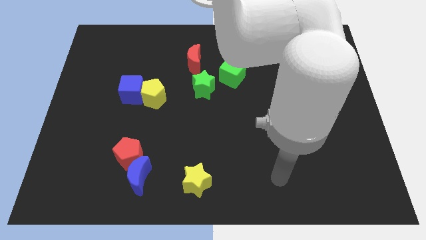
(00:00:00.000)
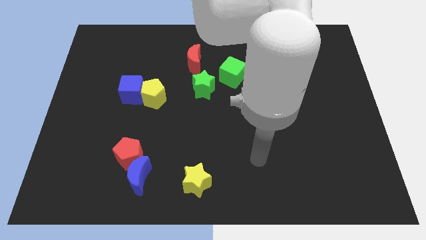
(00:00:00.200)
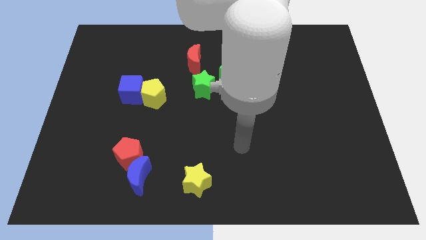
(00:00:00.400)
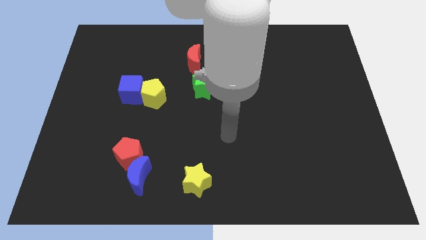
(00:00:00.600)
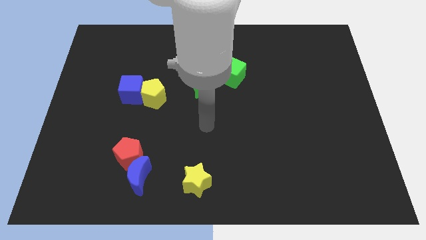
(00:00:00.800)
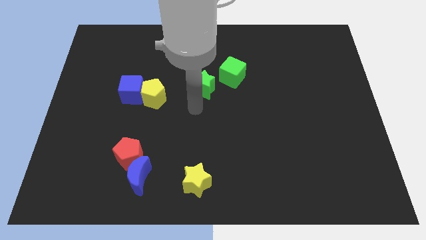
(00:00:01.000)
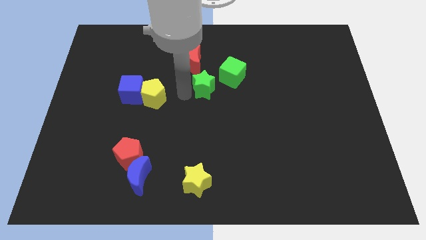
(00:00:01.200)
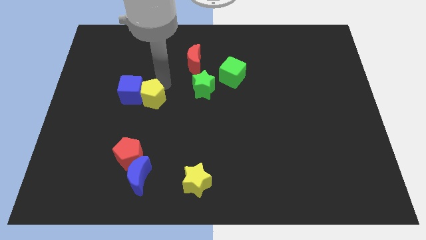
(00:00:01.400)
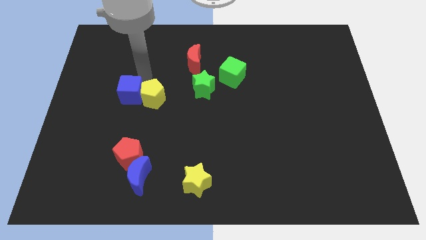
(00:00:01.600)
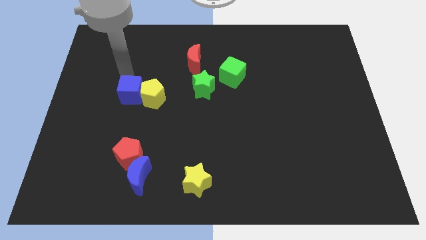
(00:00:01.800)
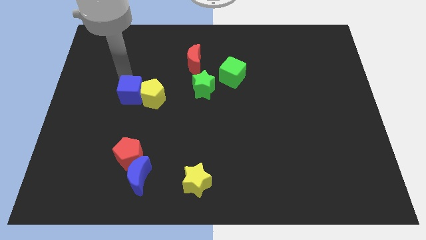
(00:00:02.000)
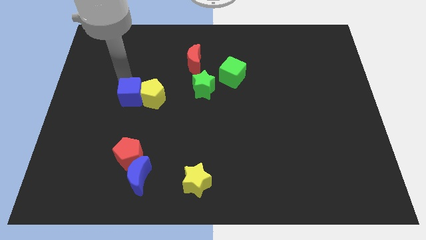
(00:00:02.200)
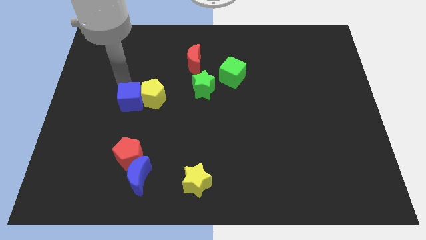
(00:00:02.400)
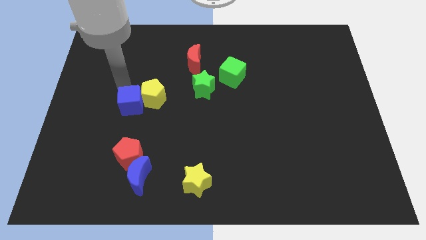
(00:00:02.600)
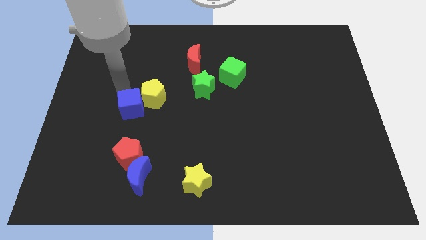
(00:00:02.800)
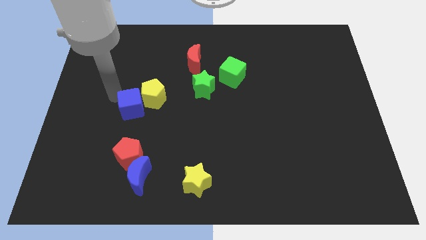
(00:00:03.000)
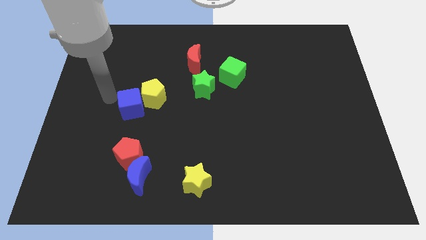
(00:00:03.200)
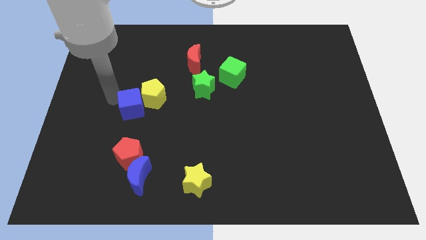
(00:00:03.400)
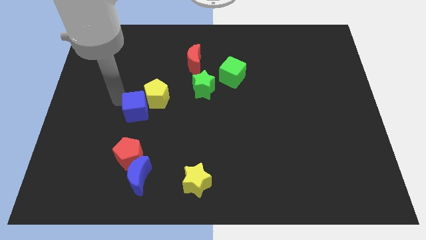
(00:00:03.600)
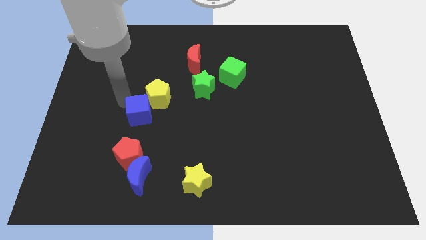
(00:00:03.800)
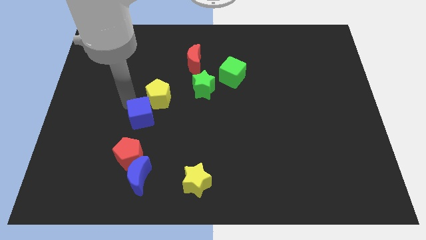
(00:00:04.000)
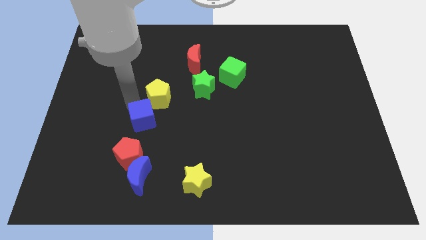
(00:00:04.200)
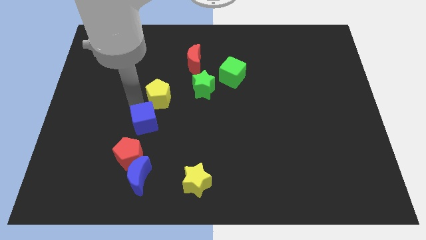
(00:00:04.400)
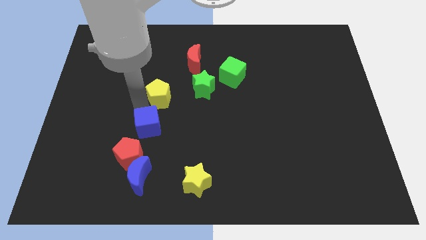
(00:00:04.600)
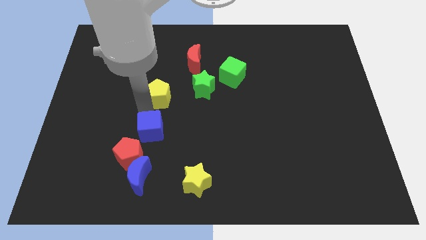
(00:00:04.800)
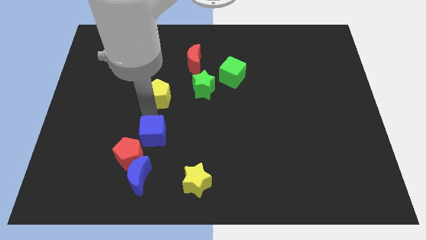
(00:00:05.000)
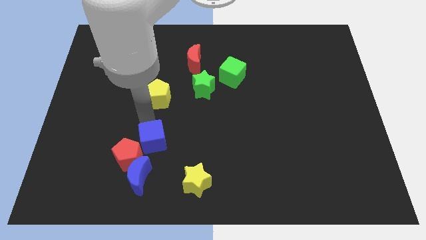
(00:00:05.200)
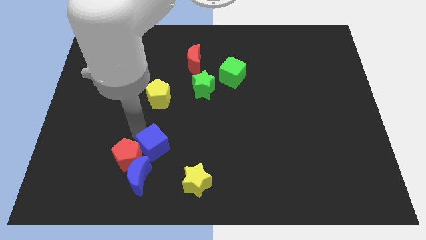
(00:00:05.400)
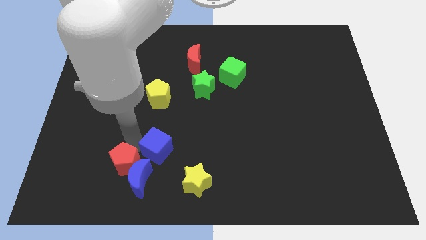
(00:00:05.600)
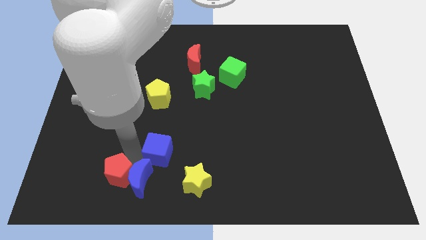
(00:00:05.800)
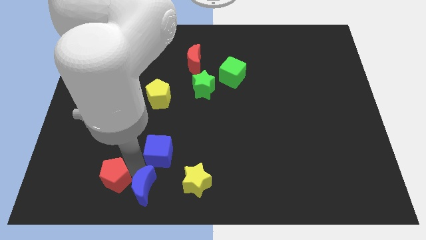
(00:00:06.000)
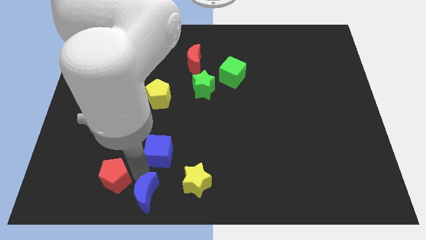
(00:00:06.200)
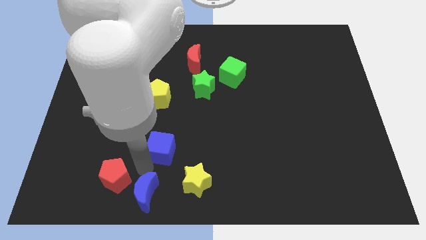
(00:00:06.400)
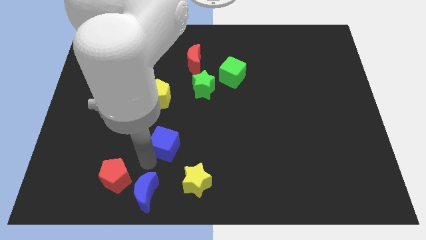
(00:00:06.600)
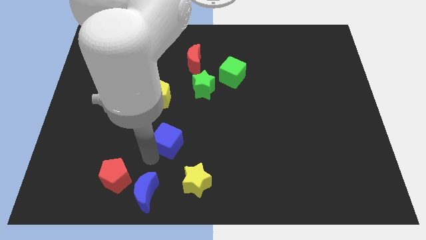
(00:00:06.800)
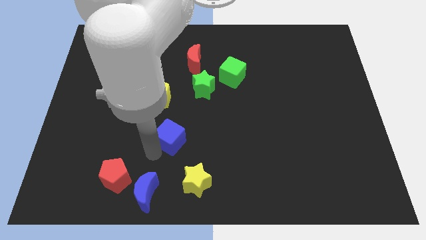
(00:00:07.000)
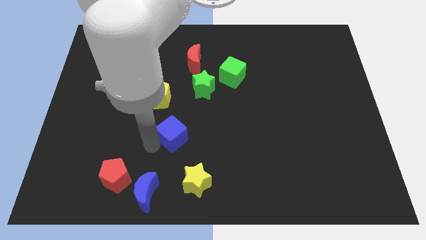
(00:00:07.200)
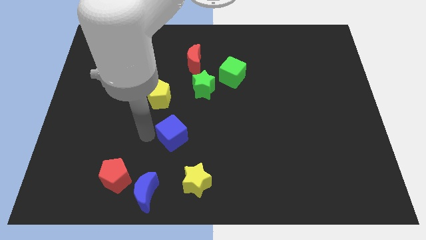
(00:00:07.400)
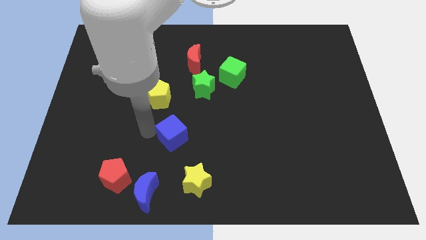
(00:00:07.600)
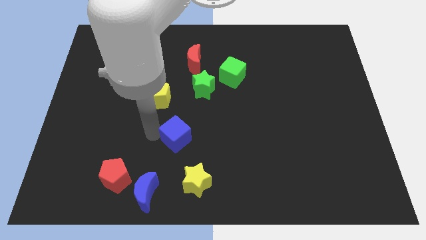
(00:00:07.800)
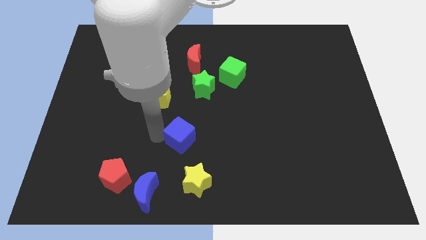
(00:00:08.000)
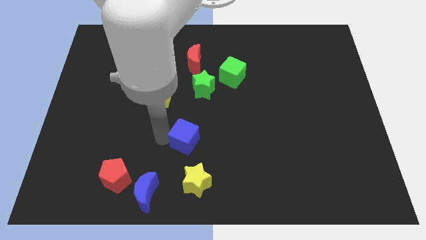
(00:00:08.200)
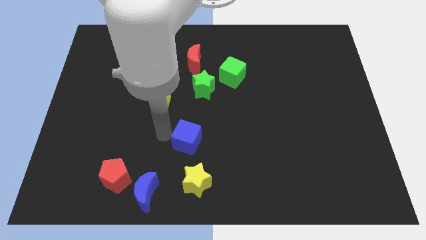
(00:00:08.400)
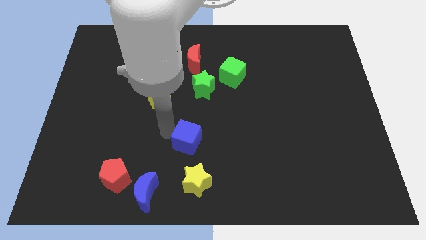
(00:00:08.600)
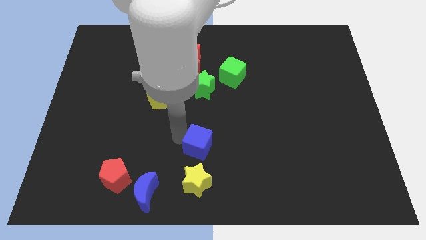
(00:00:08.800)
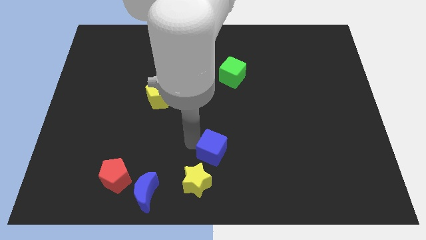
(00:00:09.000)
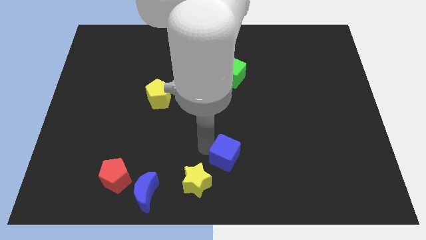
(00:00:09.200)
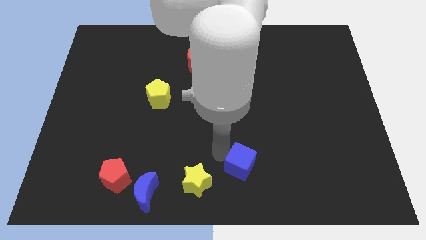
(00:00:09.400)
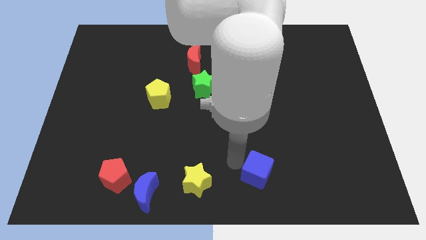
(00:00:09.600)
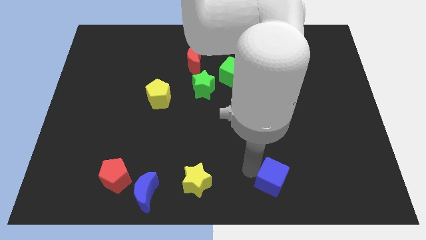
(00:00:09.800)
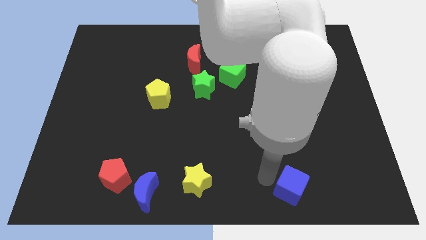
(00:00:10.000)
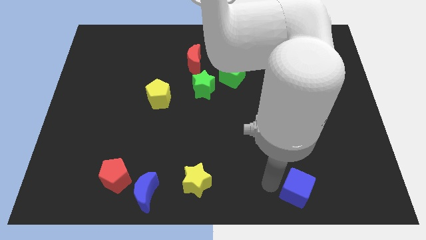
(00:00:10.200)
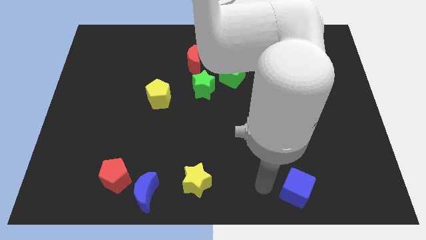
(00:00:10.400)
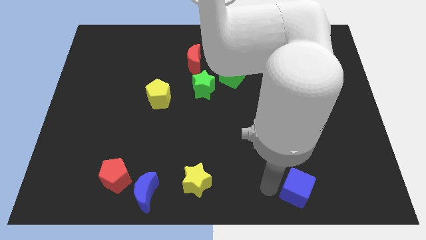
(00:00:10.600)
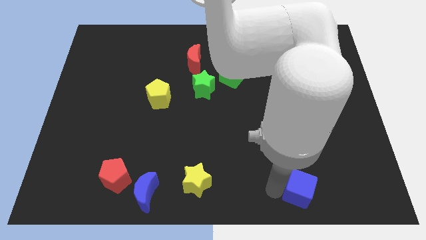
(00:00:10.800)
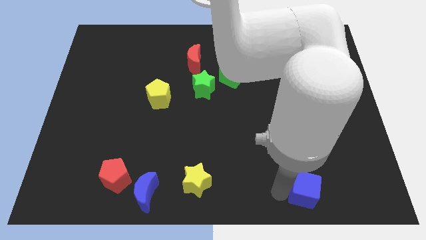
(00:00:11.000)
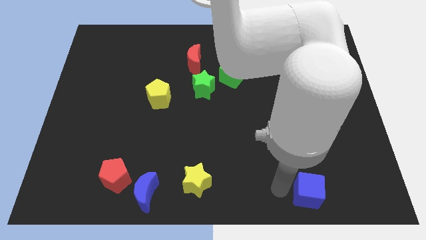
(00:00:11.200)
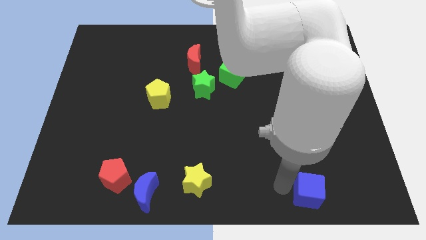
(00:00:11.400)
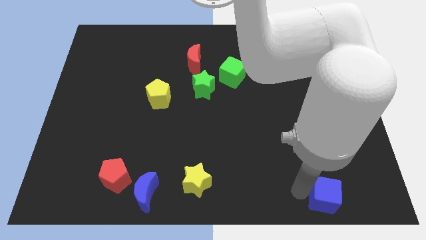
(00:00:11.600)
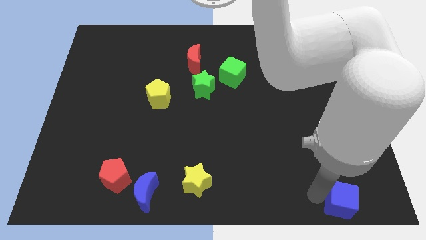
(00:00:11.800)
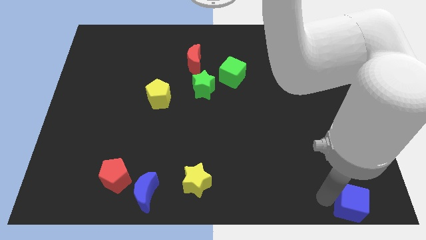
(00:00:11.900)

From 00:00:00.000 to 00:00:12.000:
push the blue cube to the bottom right
